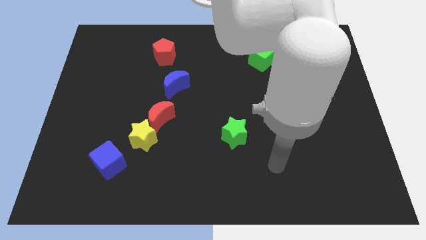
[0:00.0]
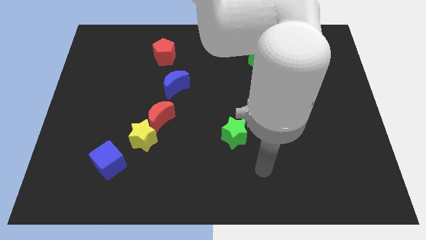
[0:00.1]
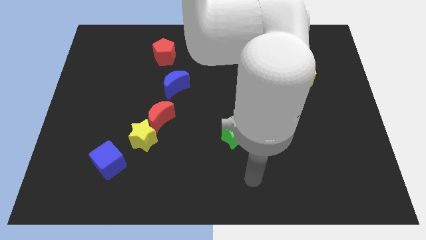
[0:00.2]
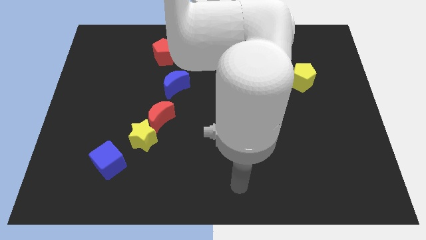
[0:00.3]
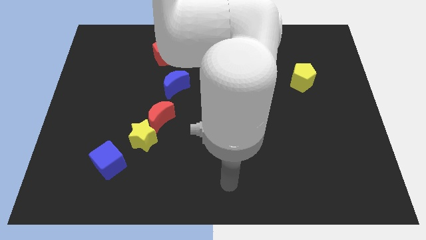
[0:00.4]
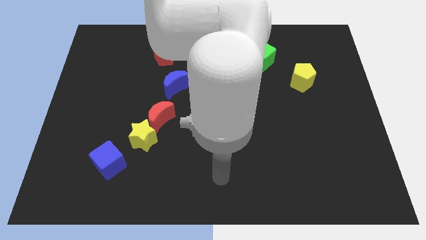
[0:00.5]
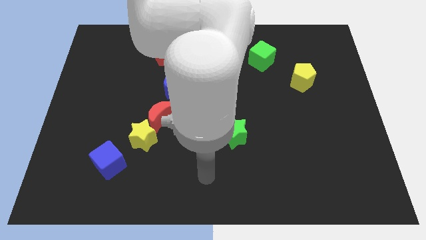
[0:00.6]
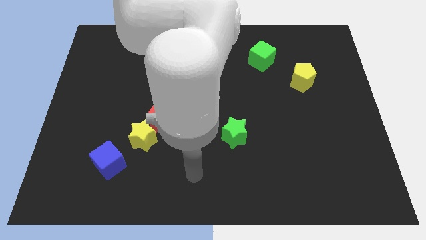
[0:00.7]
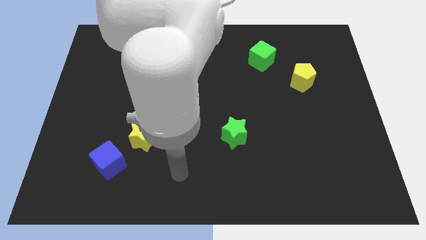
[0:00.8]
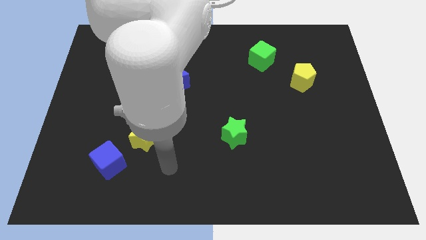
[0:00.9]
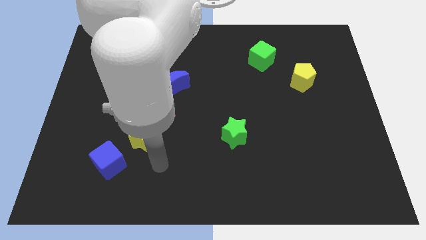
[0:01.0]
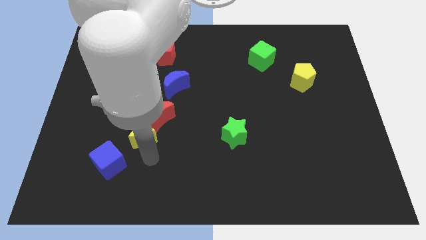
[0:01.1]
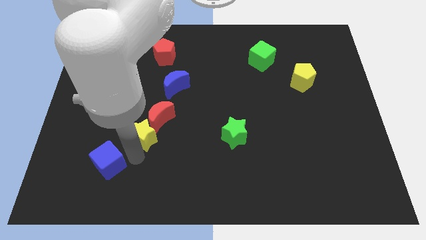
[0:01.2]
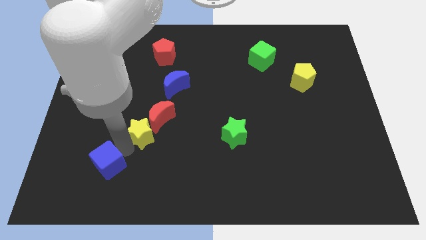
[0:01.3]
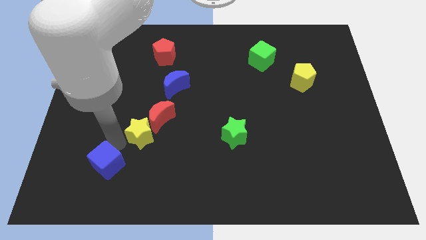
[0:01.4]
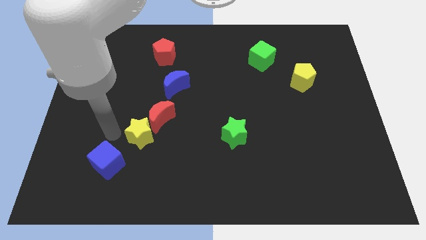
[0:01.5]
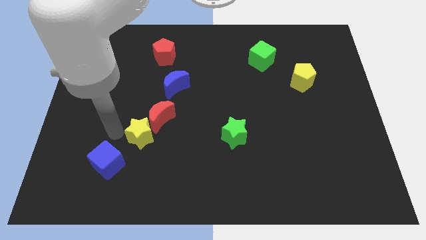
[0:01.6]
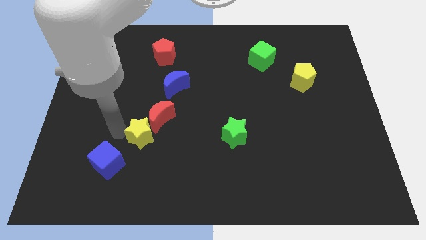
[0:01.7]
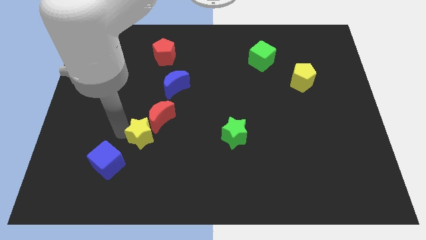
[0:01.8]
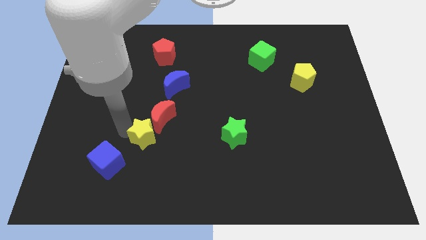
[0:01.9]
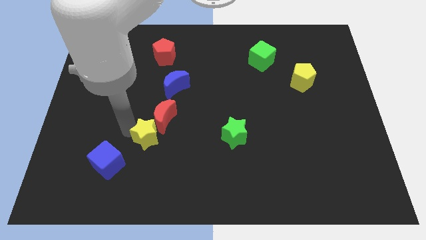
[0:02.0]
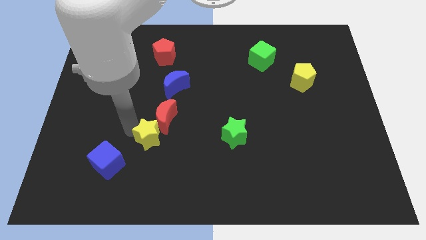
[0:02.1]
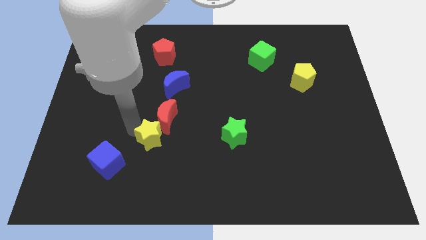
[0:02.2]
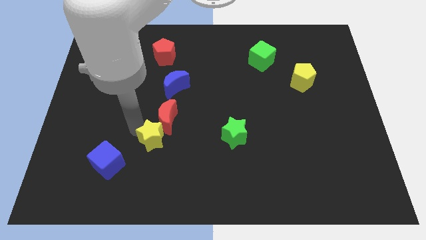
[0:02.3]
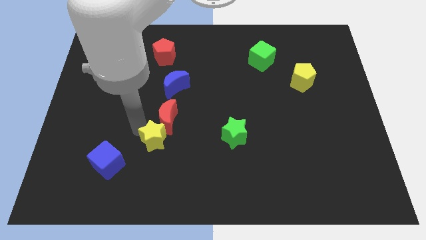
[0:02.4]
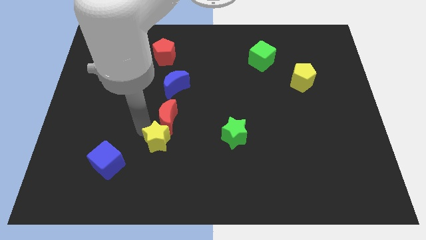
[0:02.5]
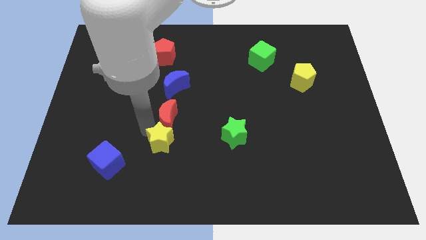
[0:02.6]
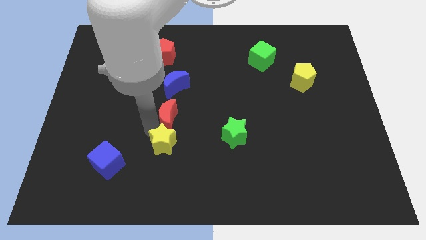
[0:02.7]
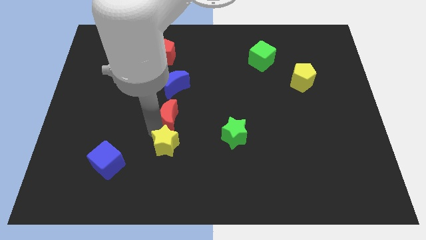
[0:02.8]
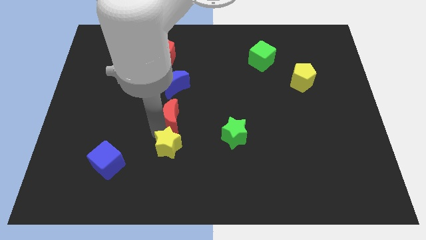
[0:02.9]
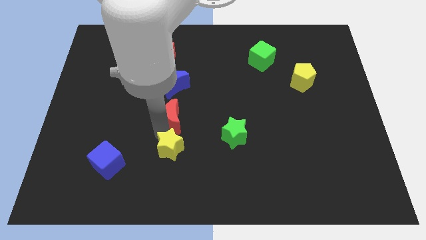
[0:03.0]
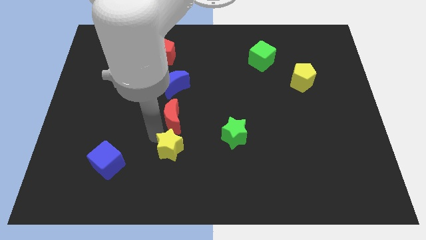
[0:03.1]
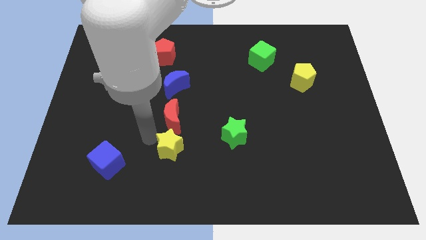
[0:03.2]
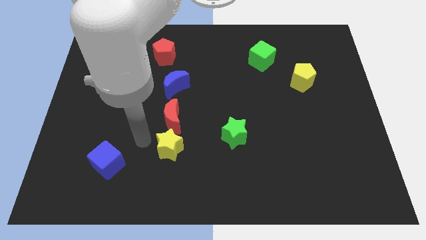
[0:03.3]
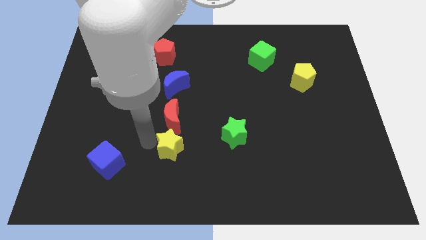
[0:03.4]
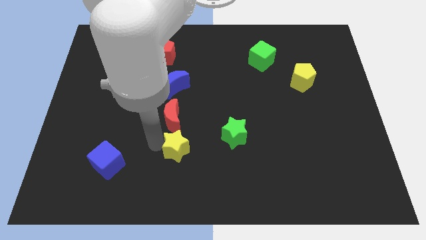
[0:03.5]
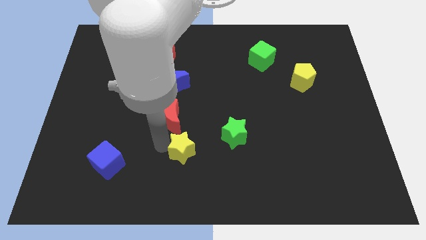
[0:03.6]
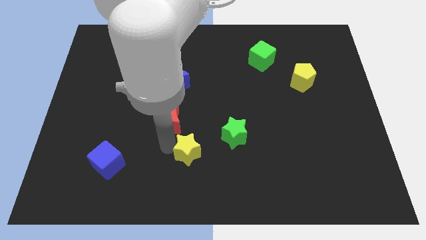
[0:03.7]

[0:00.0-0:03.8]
pull the yellow star apart from the red moon and blue cube

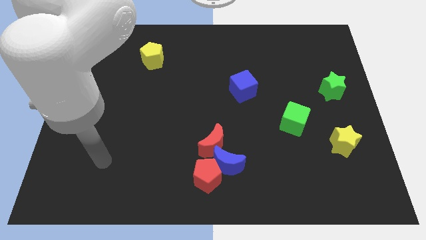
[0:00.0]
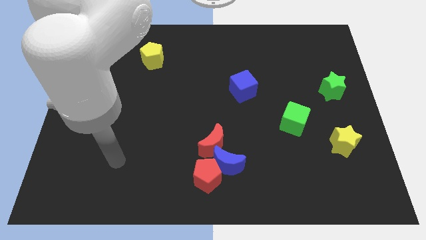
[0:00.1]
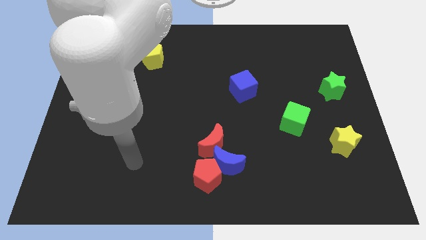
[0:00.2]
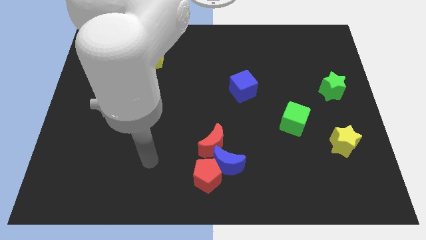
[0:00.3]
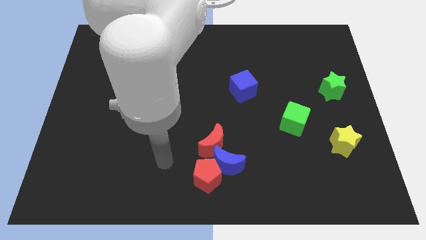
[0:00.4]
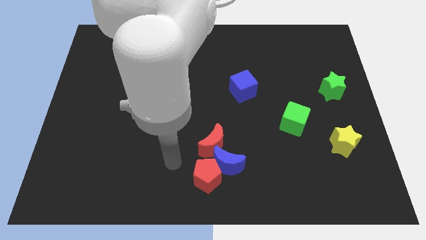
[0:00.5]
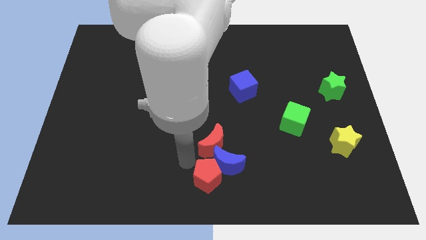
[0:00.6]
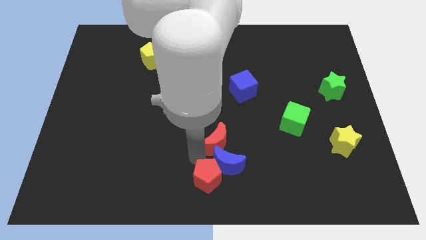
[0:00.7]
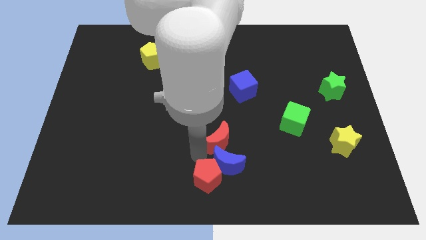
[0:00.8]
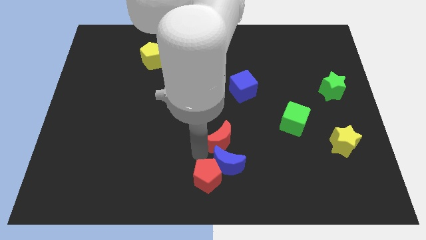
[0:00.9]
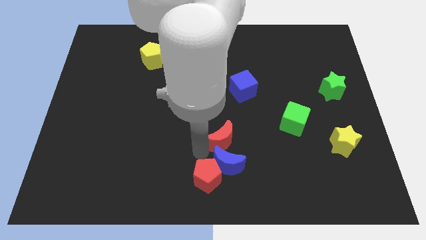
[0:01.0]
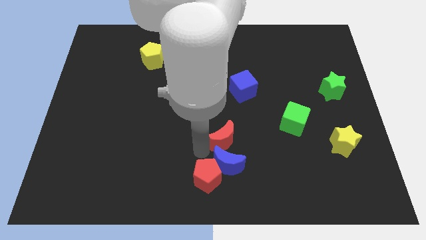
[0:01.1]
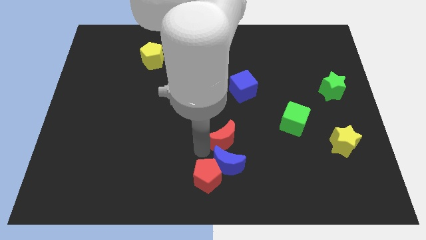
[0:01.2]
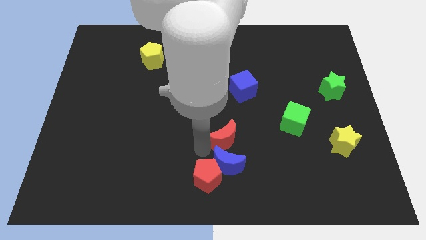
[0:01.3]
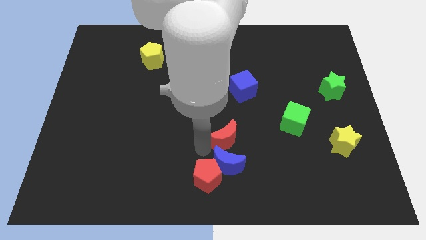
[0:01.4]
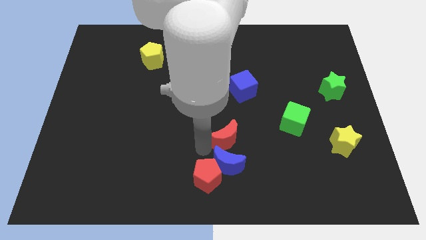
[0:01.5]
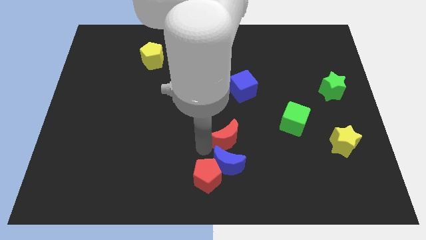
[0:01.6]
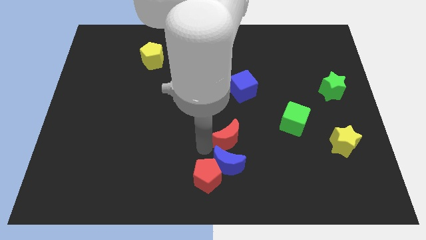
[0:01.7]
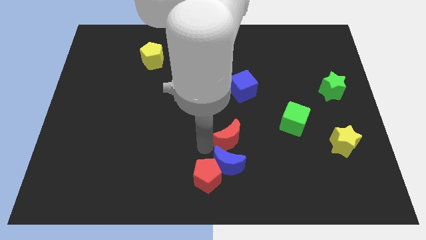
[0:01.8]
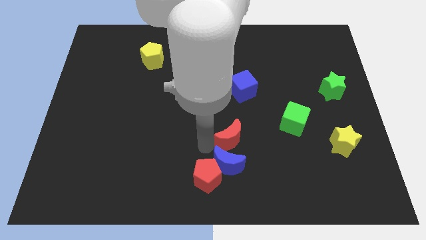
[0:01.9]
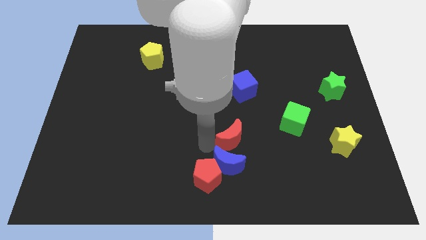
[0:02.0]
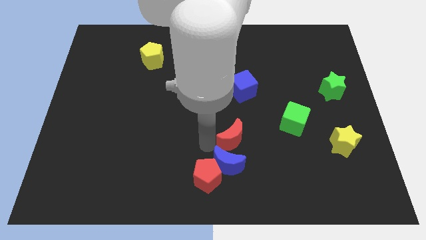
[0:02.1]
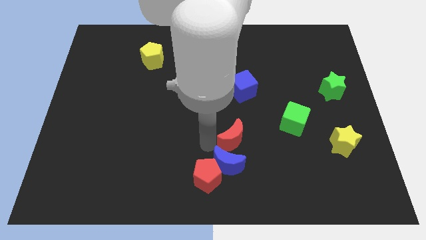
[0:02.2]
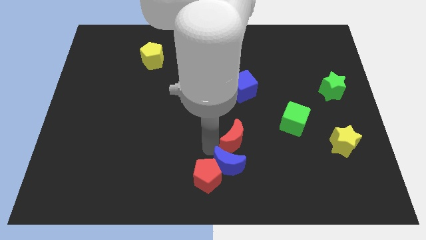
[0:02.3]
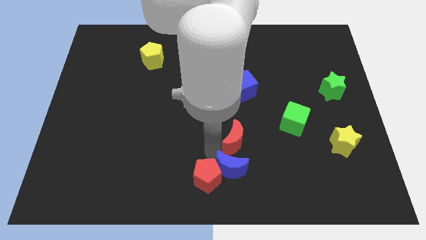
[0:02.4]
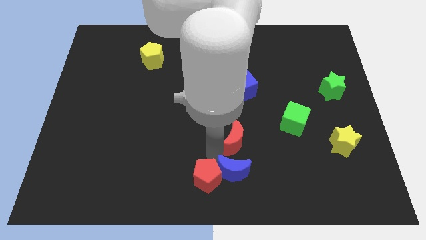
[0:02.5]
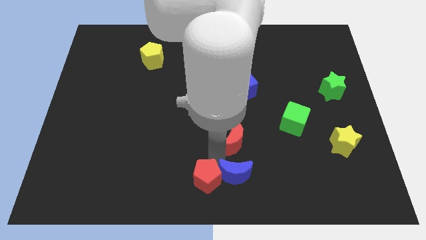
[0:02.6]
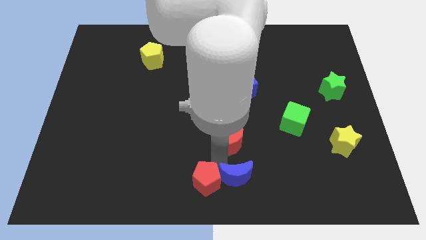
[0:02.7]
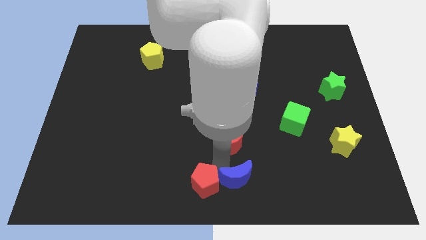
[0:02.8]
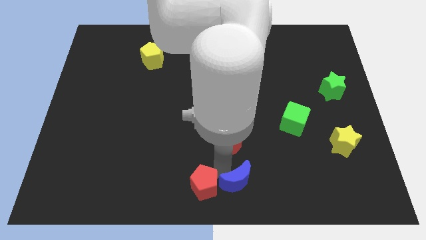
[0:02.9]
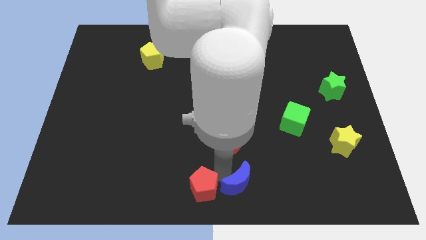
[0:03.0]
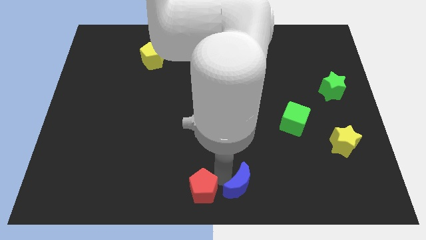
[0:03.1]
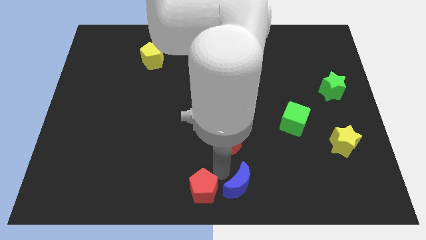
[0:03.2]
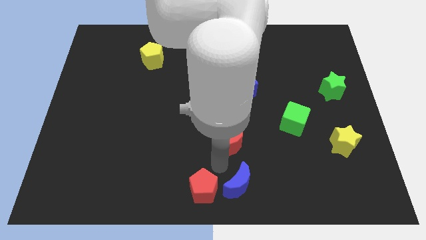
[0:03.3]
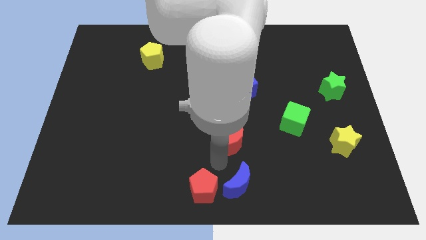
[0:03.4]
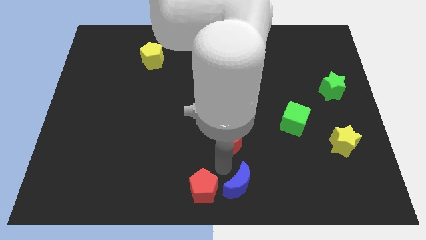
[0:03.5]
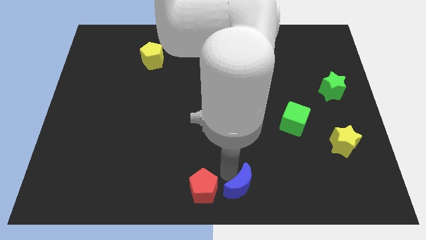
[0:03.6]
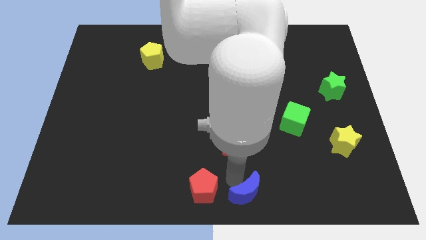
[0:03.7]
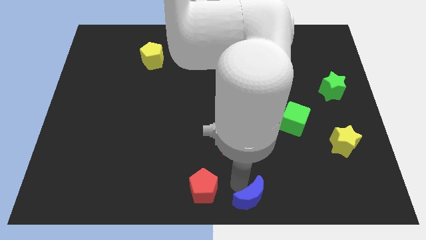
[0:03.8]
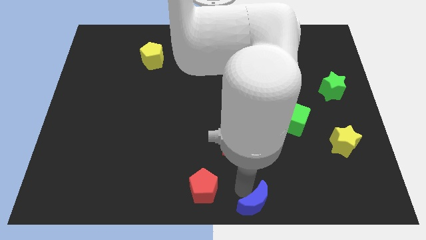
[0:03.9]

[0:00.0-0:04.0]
pull the blue moon apart from the red pentagon and red moon

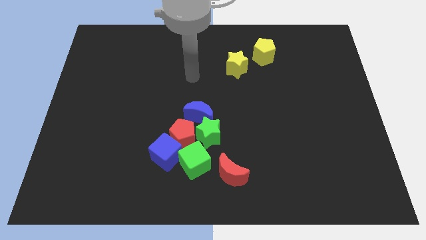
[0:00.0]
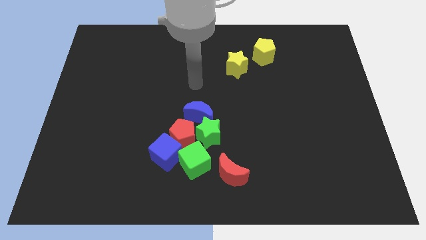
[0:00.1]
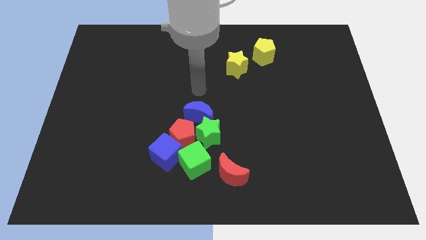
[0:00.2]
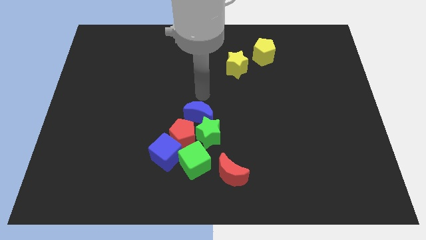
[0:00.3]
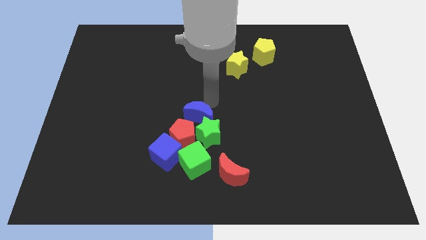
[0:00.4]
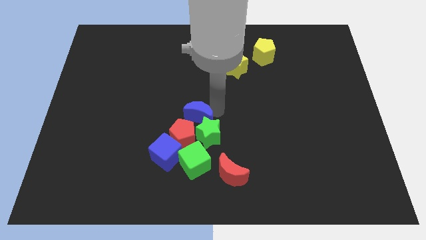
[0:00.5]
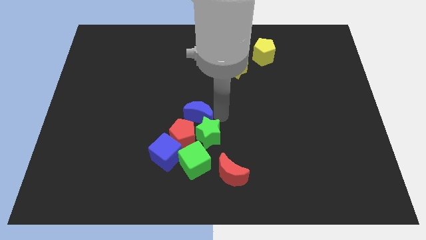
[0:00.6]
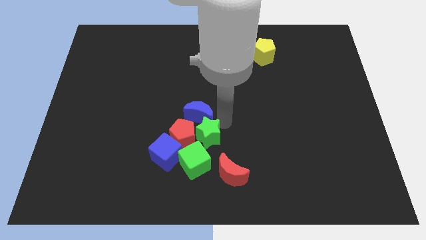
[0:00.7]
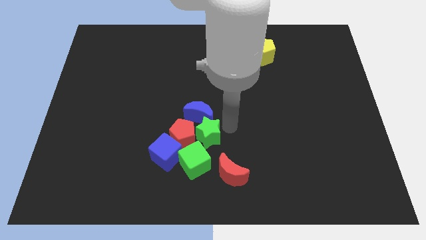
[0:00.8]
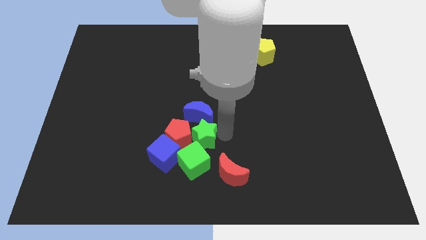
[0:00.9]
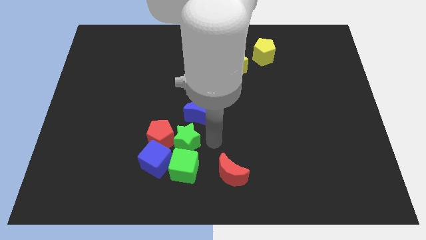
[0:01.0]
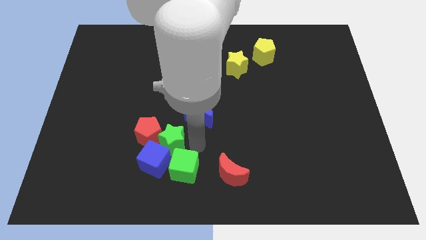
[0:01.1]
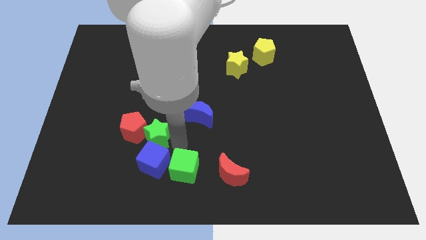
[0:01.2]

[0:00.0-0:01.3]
pull the red pentagon apart from the group of blocks

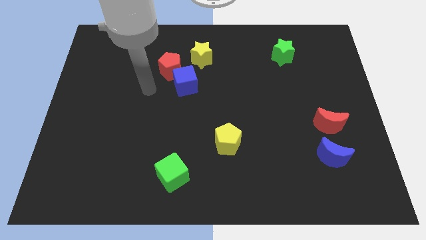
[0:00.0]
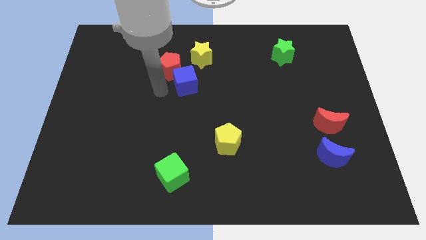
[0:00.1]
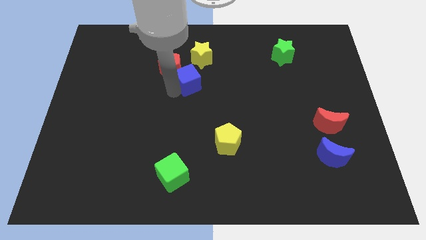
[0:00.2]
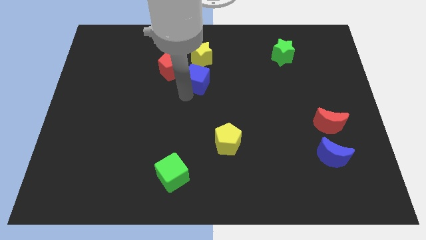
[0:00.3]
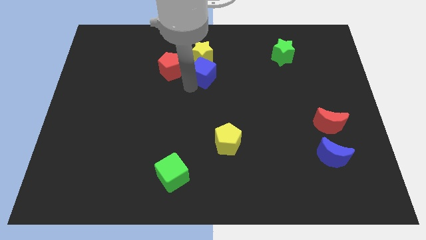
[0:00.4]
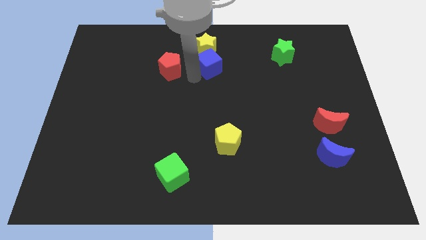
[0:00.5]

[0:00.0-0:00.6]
separate the red pentagon from the blue cube and yellow star
